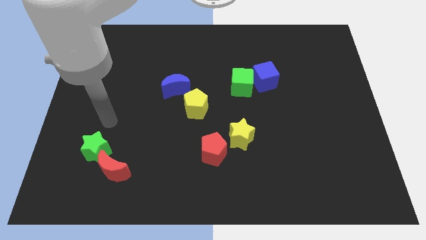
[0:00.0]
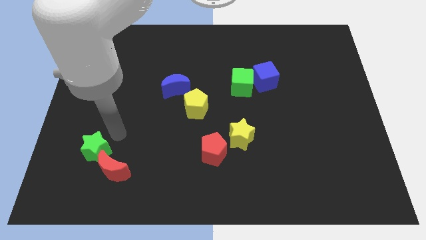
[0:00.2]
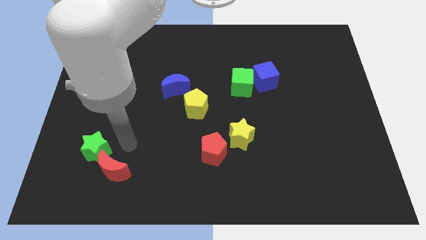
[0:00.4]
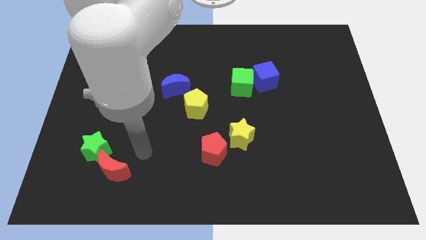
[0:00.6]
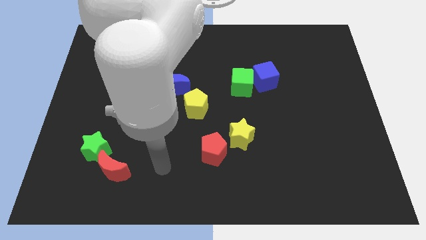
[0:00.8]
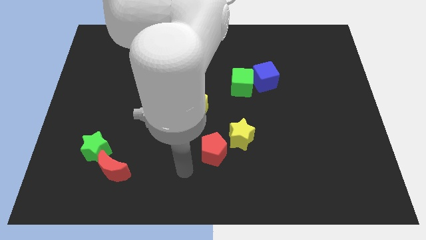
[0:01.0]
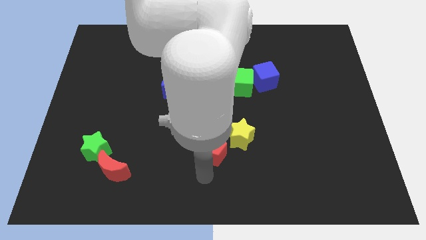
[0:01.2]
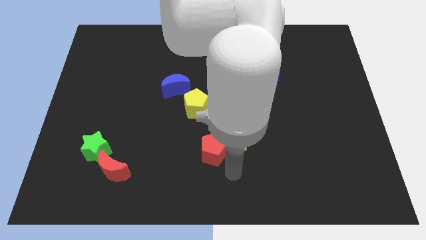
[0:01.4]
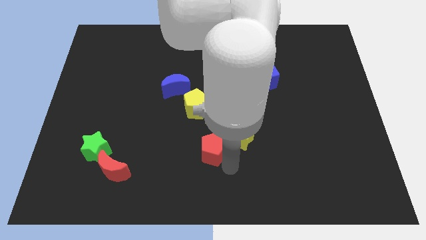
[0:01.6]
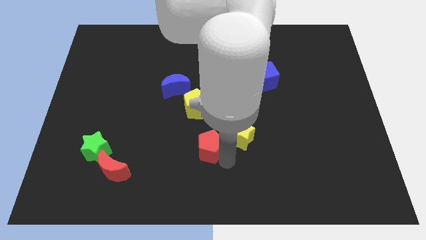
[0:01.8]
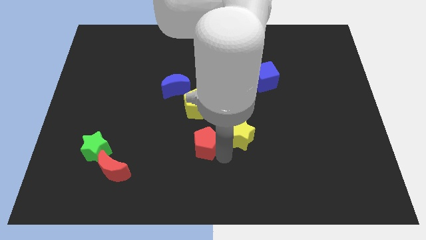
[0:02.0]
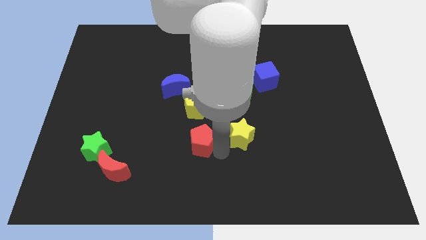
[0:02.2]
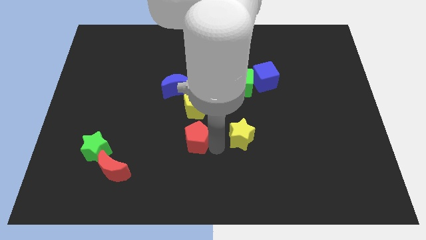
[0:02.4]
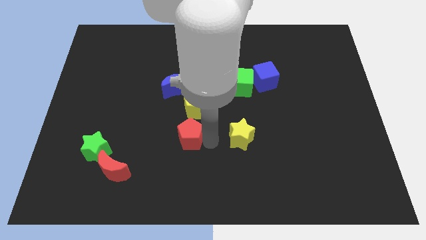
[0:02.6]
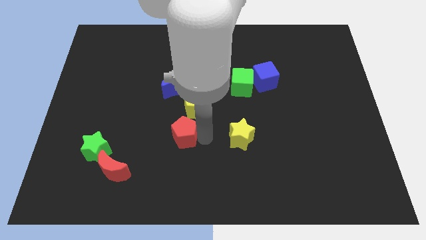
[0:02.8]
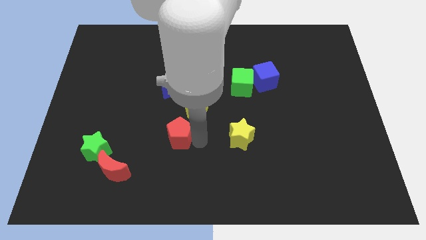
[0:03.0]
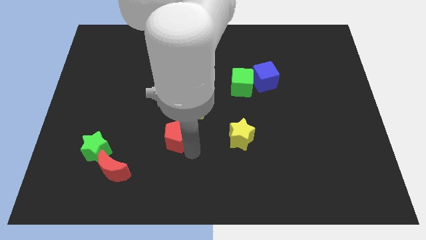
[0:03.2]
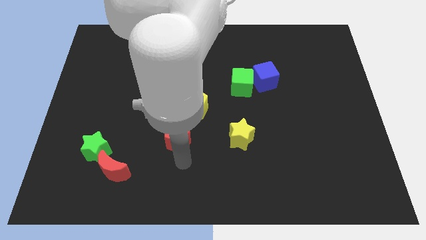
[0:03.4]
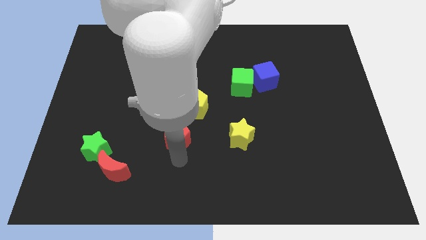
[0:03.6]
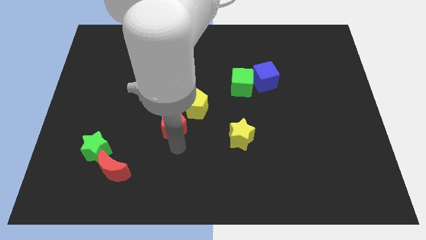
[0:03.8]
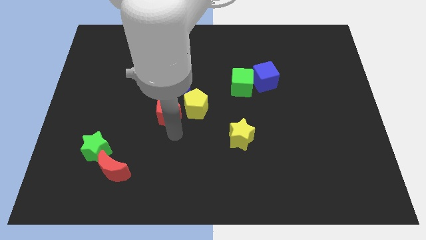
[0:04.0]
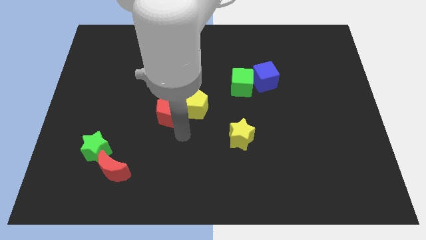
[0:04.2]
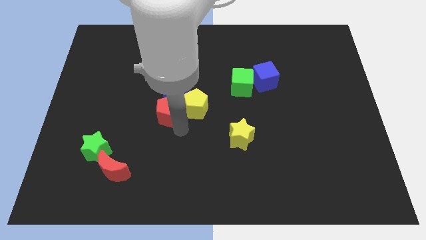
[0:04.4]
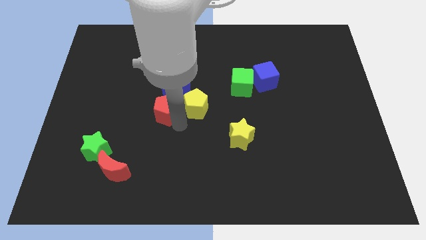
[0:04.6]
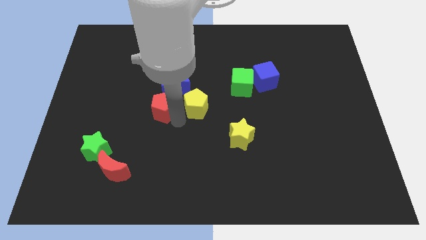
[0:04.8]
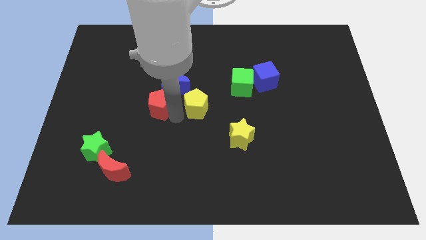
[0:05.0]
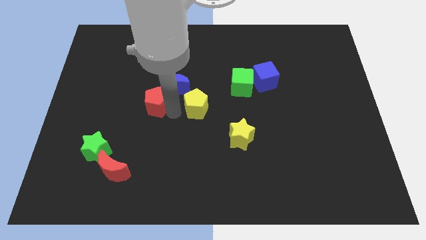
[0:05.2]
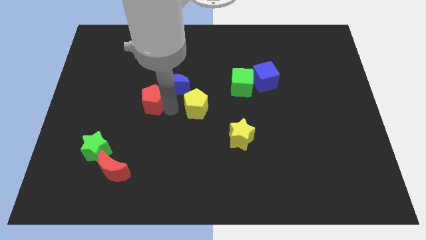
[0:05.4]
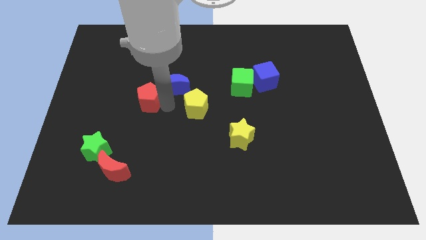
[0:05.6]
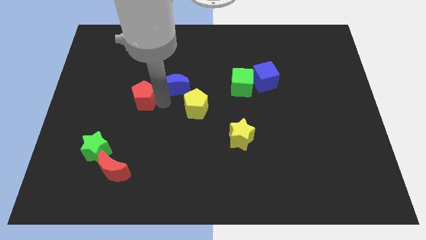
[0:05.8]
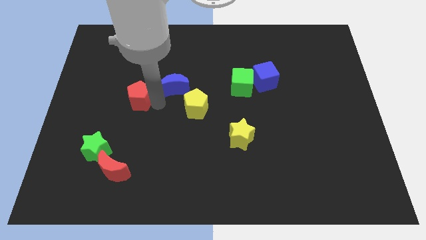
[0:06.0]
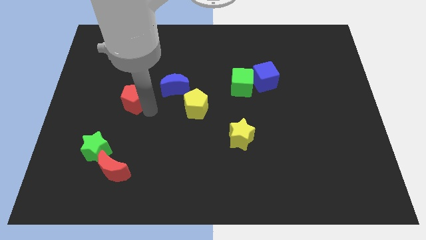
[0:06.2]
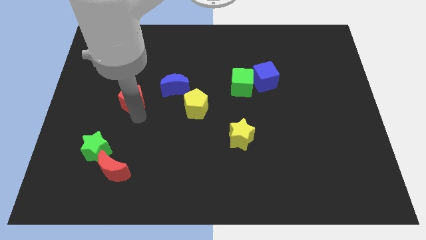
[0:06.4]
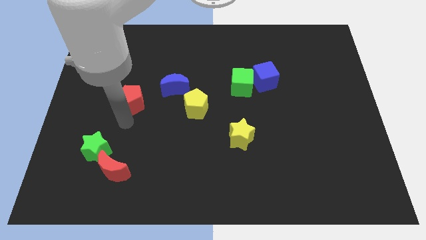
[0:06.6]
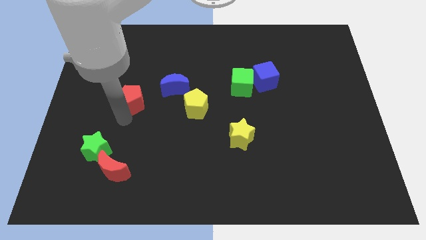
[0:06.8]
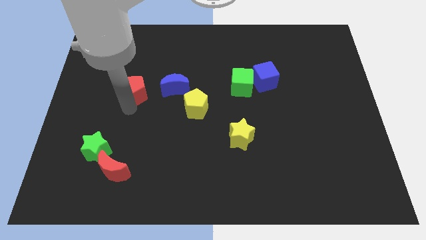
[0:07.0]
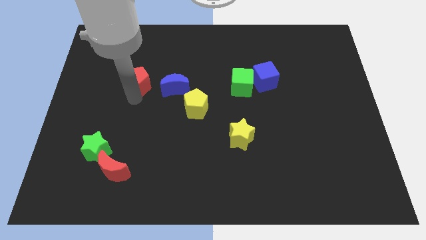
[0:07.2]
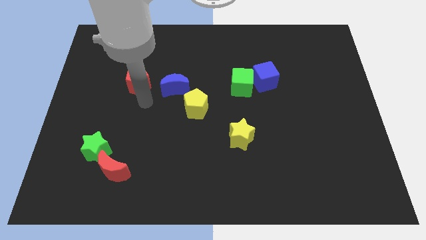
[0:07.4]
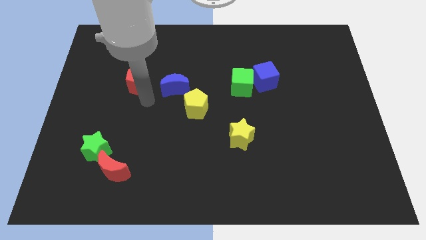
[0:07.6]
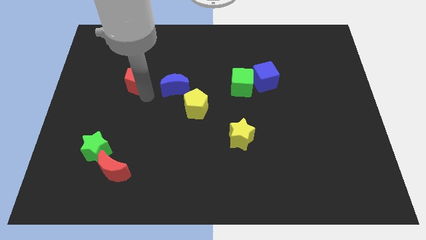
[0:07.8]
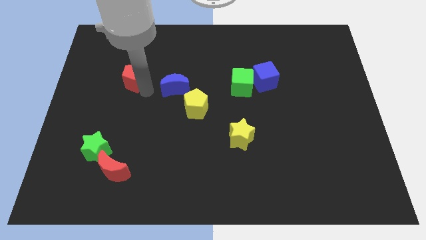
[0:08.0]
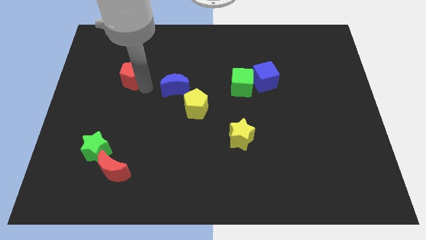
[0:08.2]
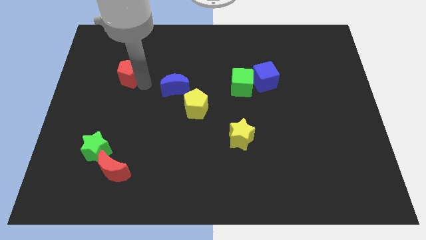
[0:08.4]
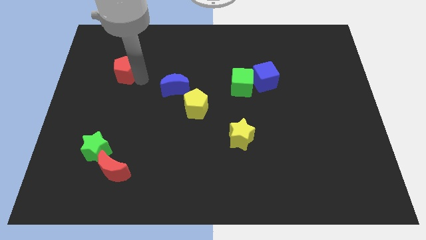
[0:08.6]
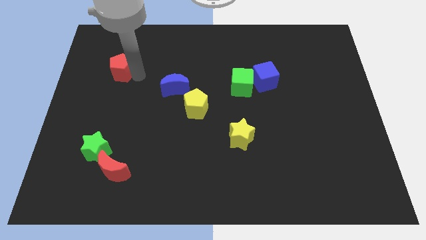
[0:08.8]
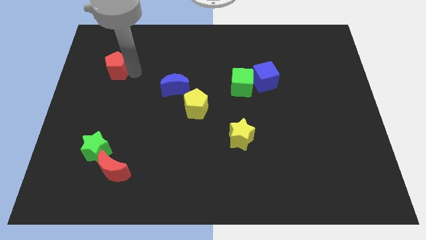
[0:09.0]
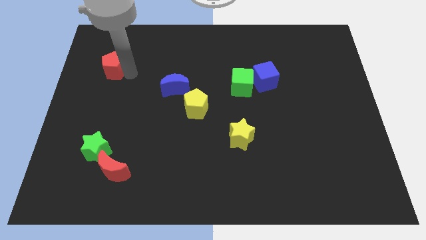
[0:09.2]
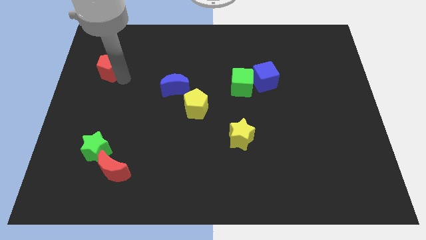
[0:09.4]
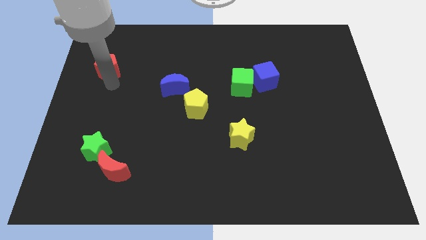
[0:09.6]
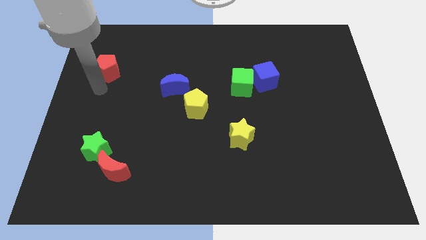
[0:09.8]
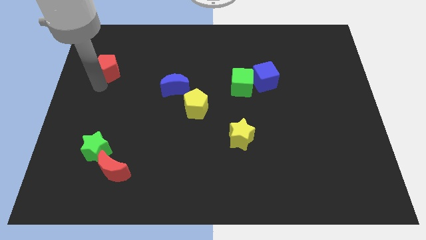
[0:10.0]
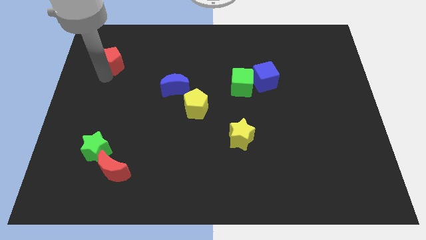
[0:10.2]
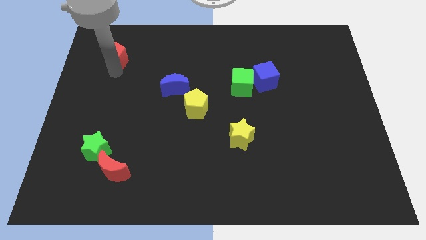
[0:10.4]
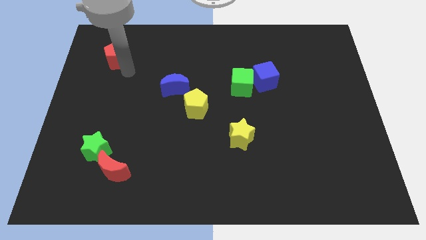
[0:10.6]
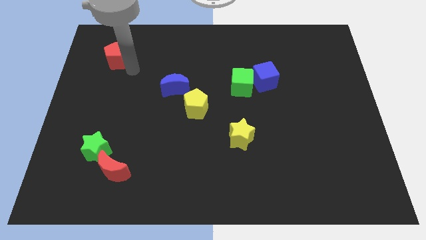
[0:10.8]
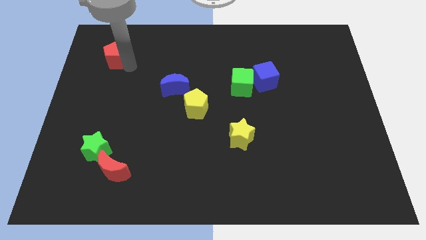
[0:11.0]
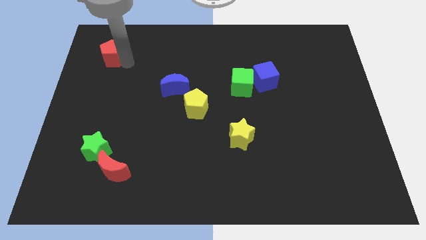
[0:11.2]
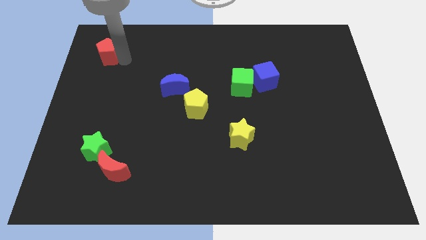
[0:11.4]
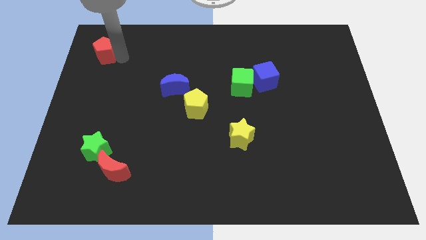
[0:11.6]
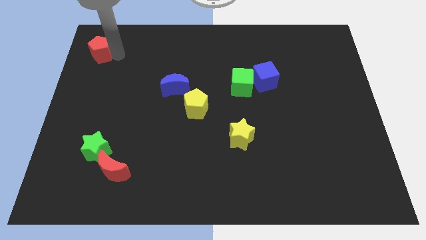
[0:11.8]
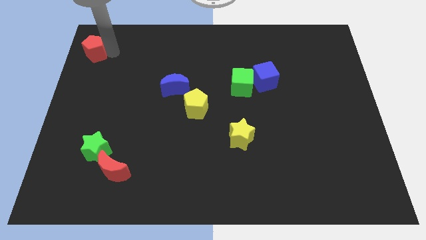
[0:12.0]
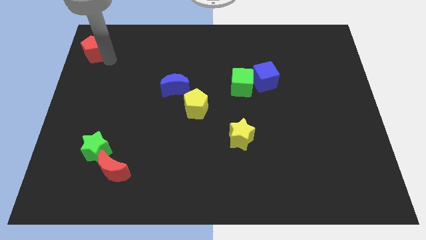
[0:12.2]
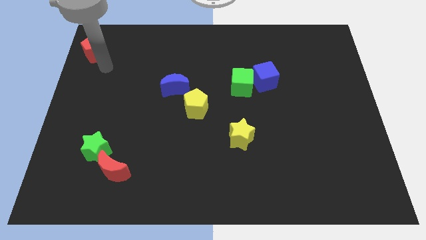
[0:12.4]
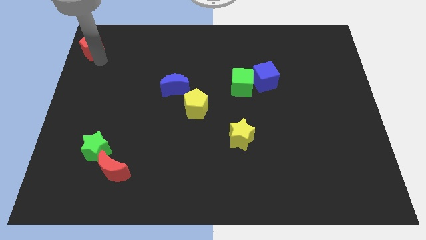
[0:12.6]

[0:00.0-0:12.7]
slide the red pentagon to the upper left corner

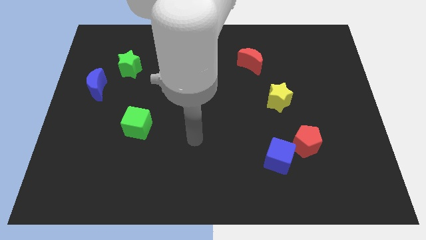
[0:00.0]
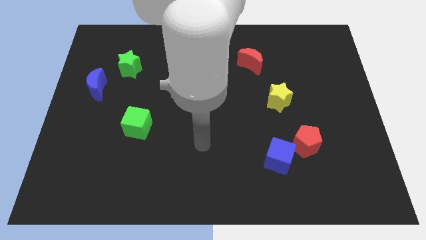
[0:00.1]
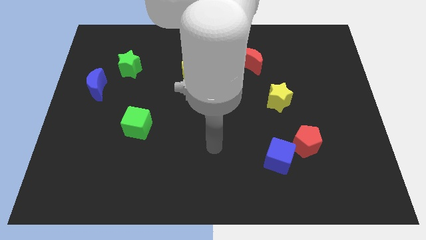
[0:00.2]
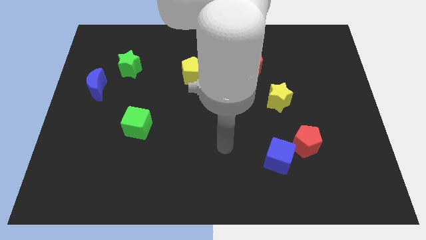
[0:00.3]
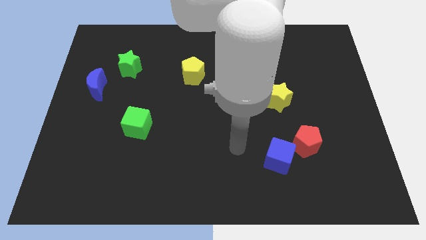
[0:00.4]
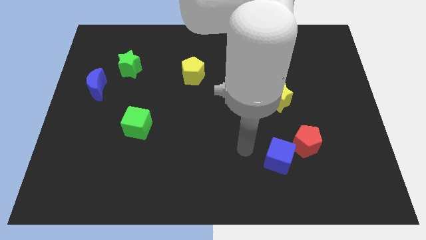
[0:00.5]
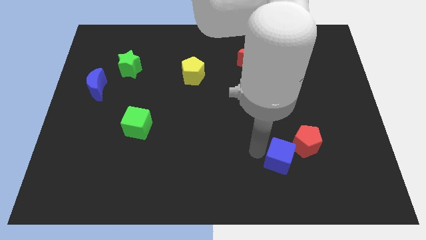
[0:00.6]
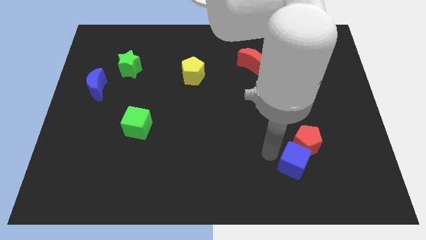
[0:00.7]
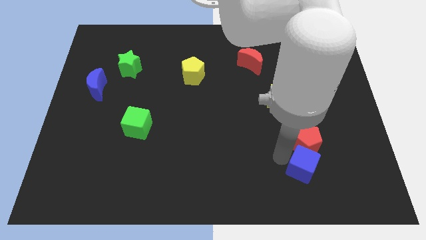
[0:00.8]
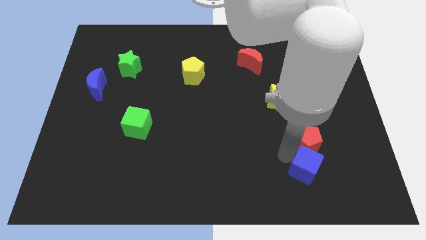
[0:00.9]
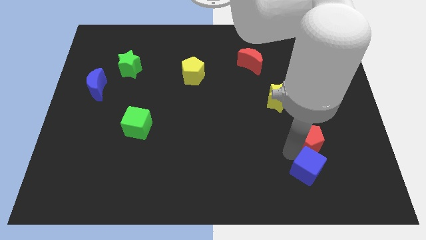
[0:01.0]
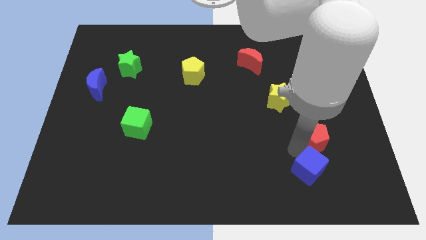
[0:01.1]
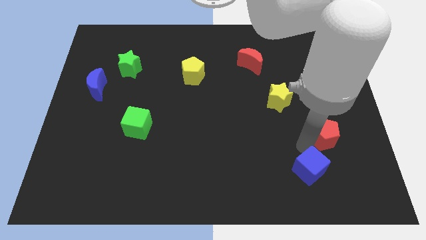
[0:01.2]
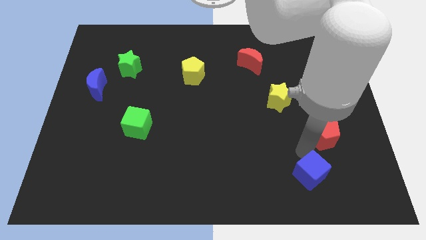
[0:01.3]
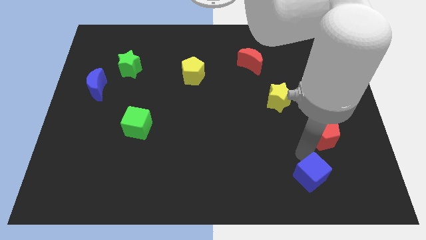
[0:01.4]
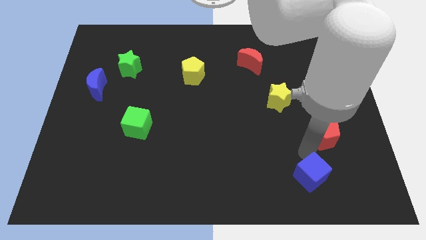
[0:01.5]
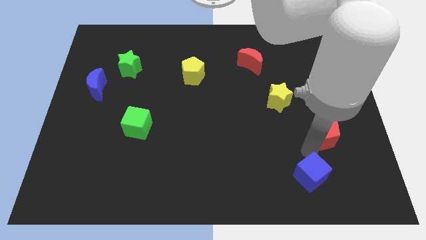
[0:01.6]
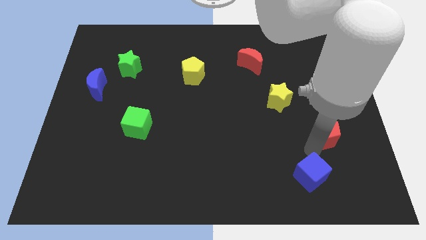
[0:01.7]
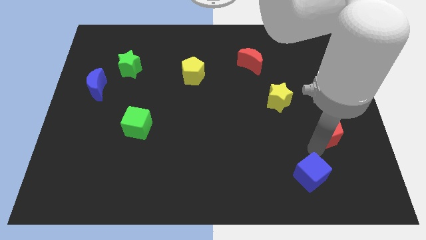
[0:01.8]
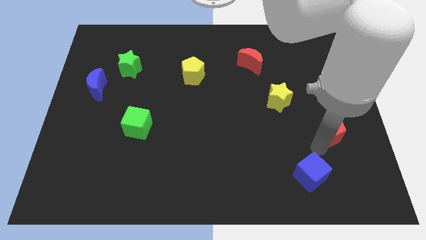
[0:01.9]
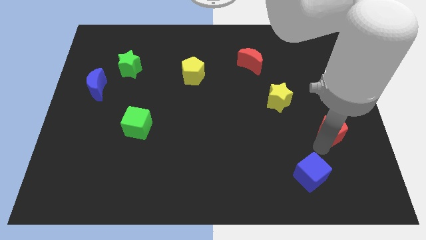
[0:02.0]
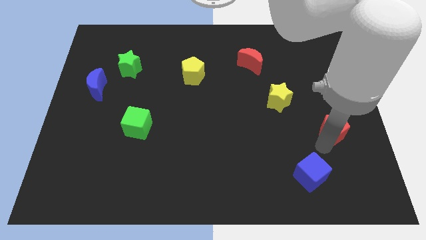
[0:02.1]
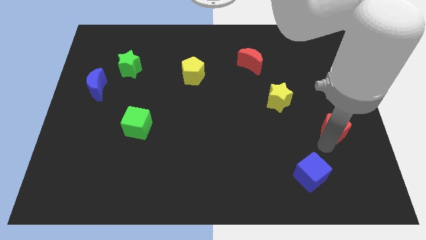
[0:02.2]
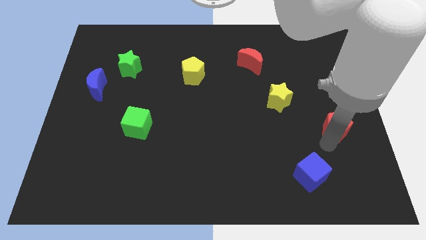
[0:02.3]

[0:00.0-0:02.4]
push the red pentagon to the right side of the board
